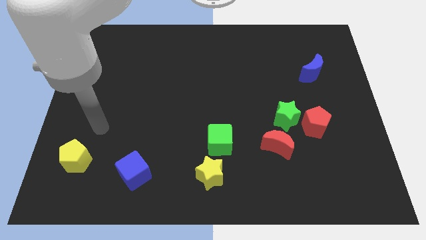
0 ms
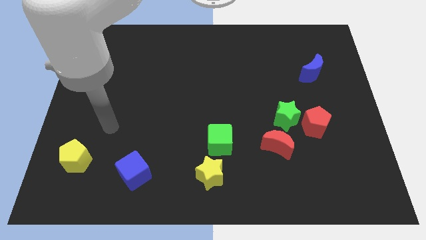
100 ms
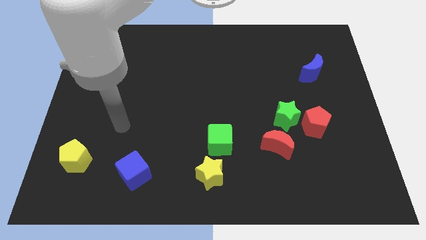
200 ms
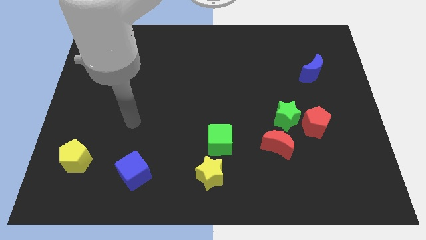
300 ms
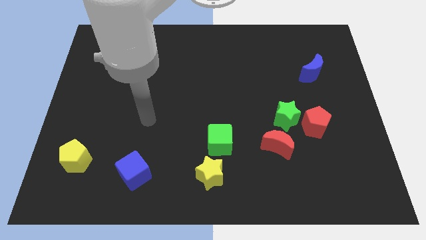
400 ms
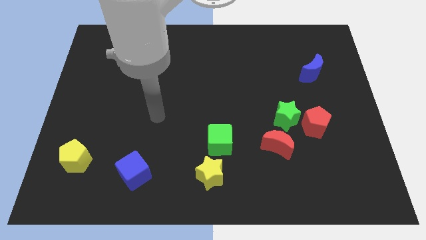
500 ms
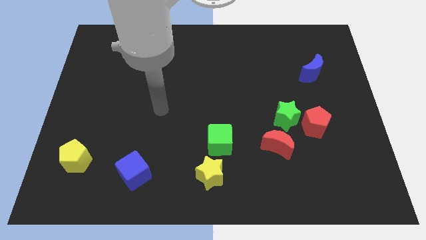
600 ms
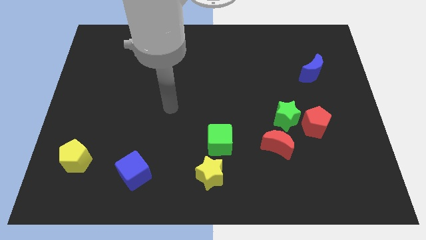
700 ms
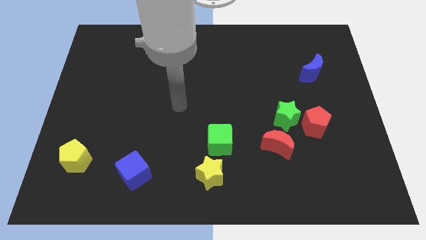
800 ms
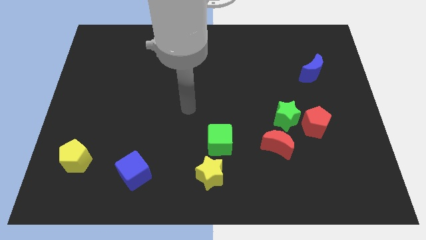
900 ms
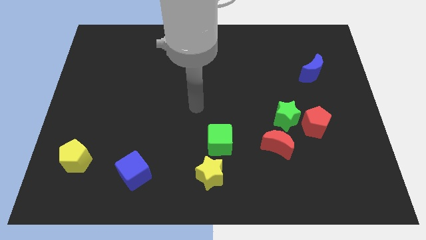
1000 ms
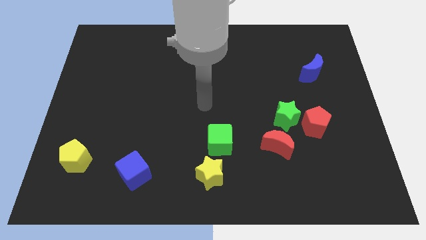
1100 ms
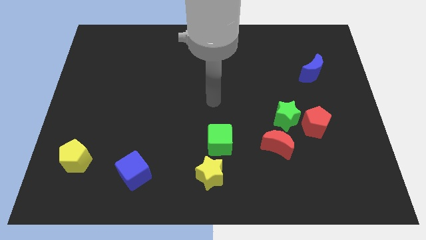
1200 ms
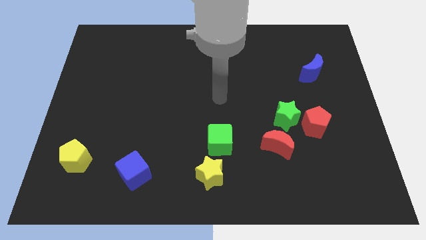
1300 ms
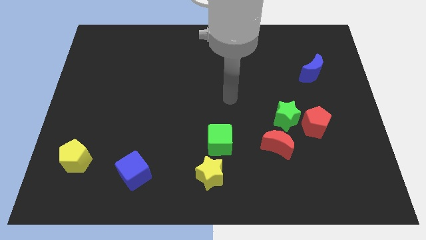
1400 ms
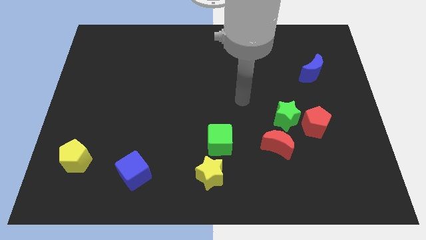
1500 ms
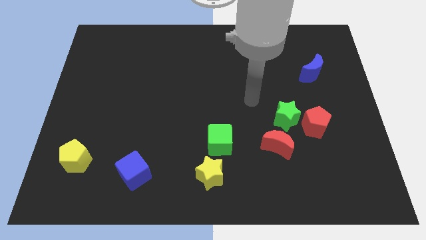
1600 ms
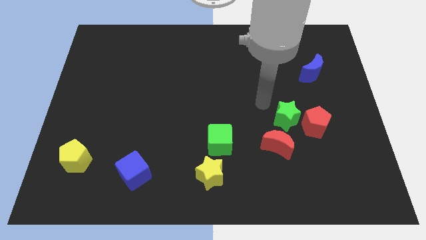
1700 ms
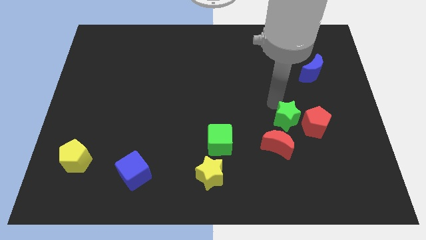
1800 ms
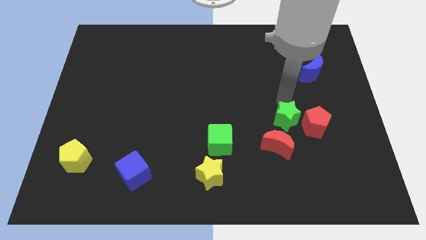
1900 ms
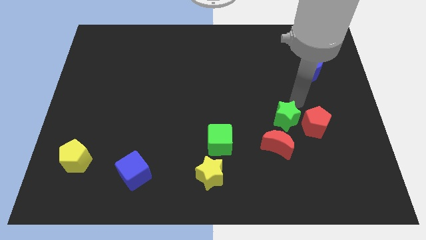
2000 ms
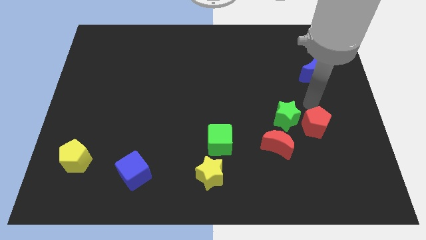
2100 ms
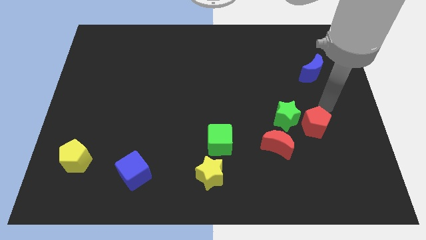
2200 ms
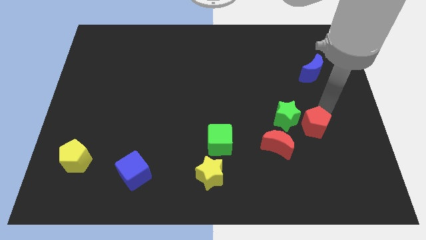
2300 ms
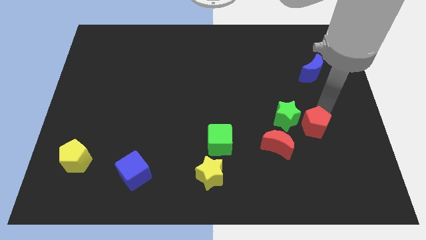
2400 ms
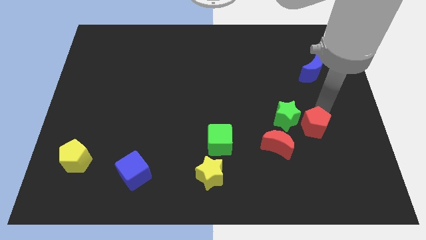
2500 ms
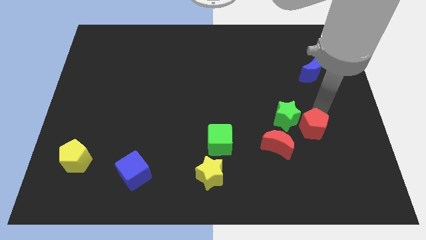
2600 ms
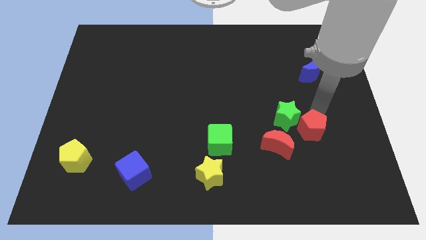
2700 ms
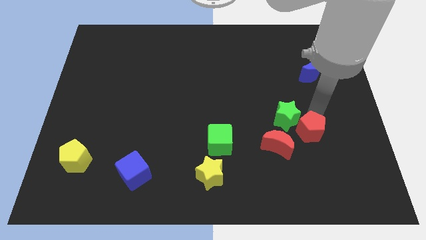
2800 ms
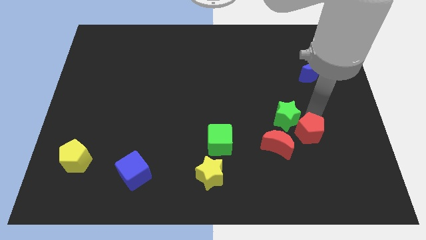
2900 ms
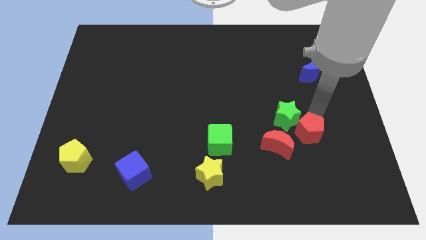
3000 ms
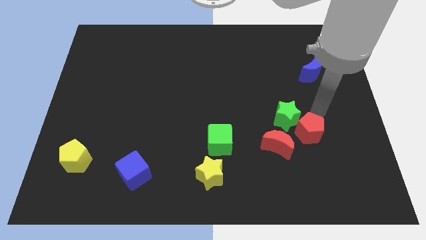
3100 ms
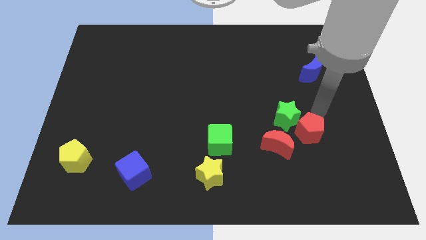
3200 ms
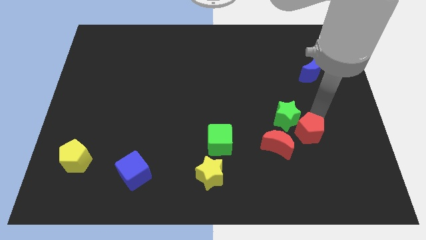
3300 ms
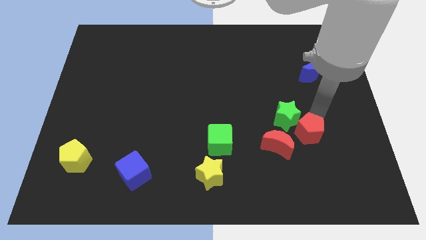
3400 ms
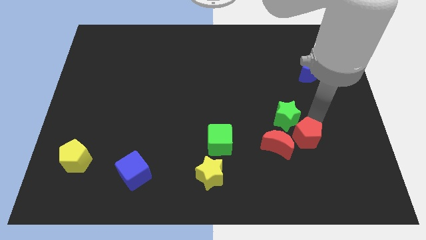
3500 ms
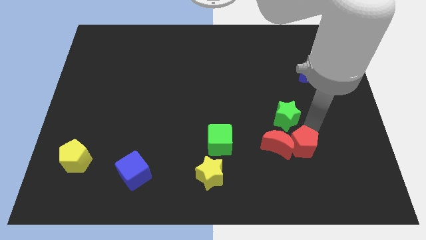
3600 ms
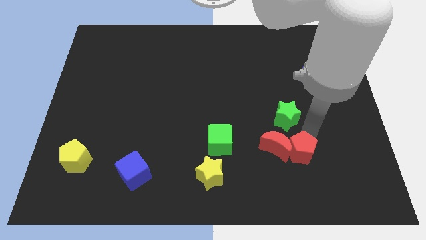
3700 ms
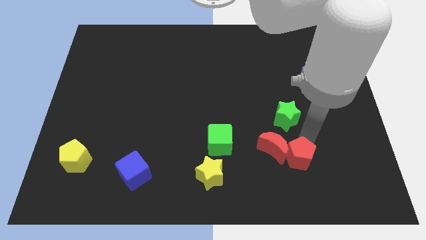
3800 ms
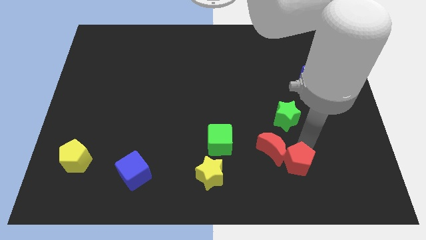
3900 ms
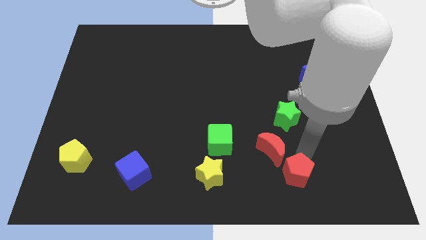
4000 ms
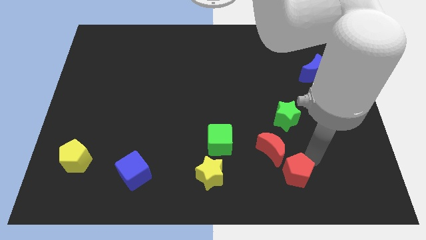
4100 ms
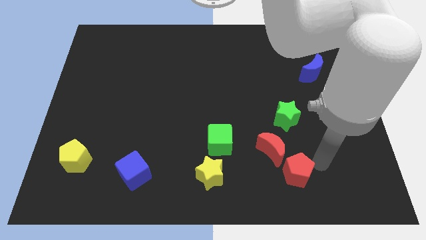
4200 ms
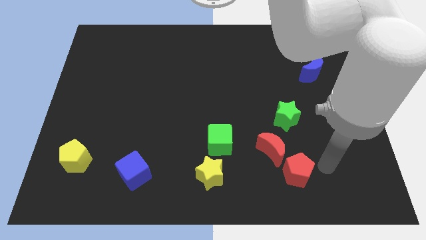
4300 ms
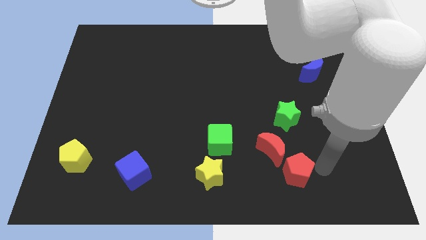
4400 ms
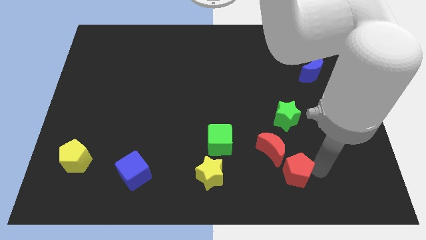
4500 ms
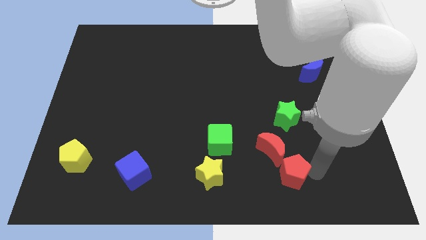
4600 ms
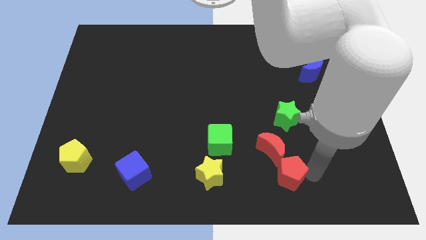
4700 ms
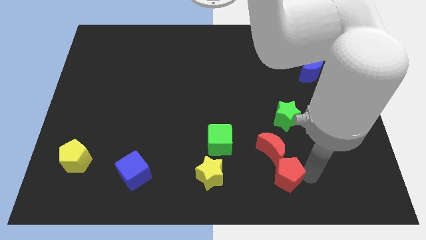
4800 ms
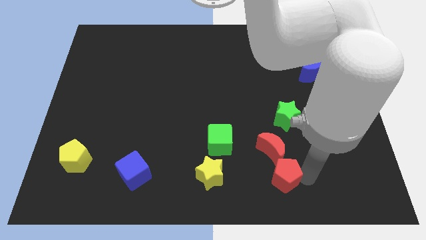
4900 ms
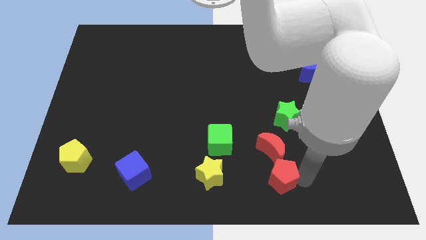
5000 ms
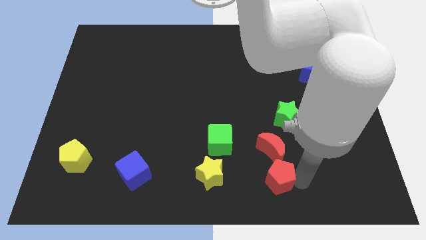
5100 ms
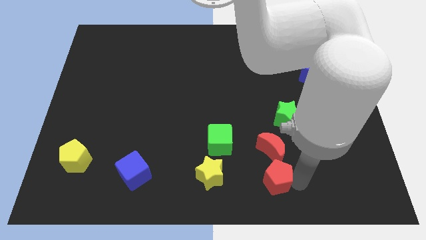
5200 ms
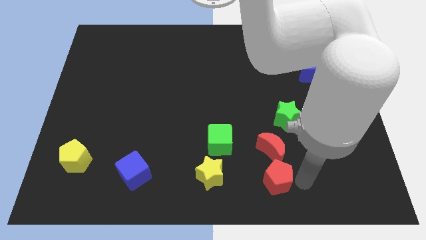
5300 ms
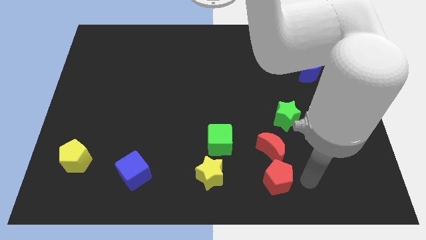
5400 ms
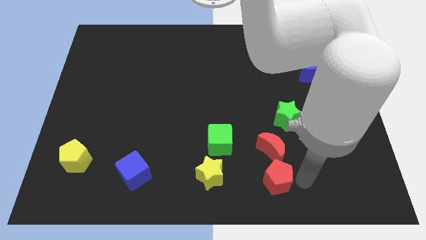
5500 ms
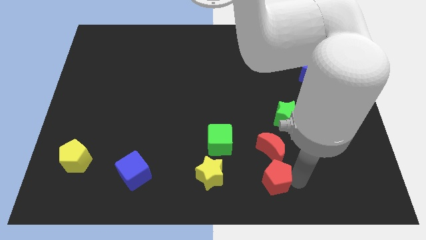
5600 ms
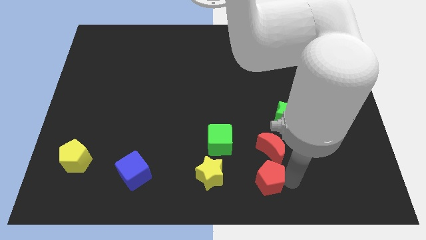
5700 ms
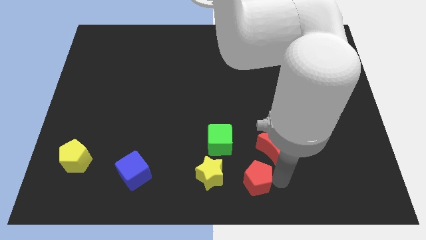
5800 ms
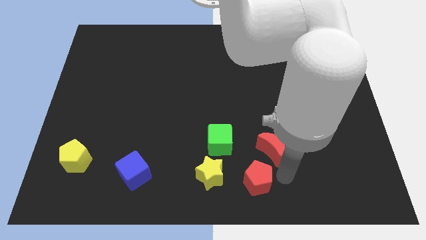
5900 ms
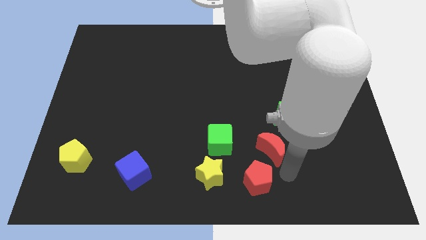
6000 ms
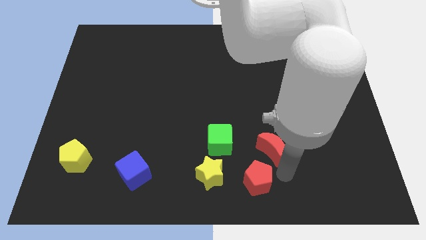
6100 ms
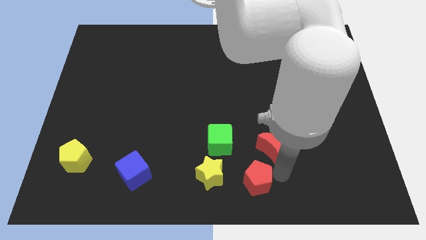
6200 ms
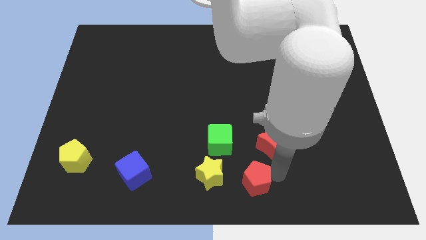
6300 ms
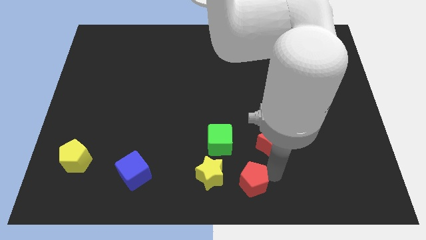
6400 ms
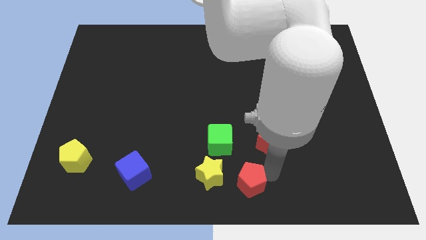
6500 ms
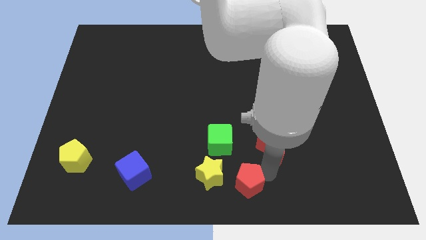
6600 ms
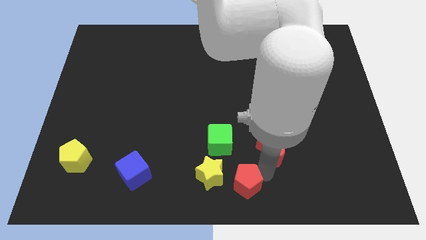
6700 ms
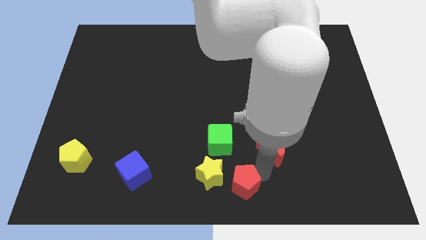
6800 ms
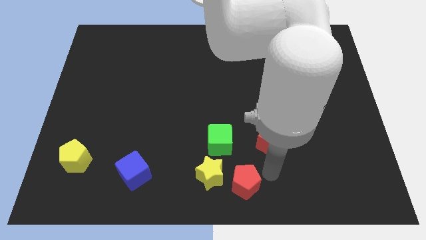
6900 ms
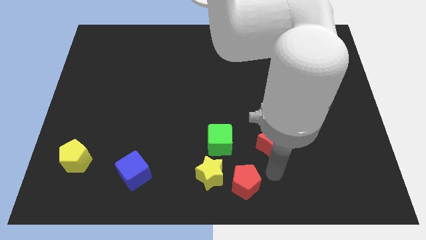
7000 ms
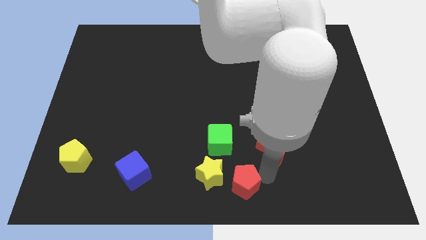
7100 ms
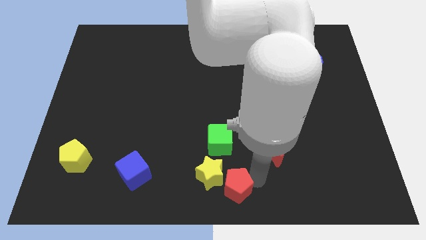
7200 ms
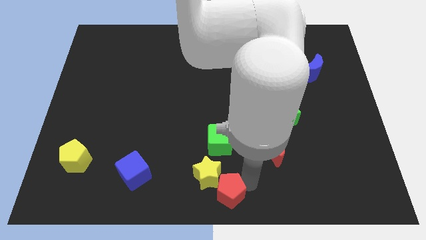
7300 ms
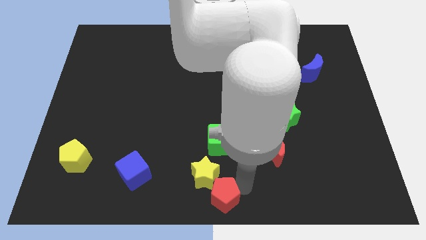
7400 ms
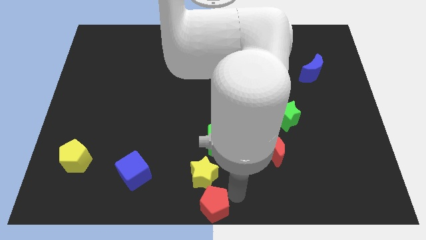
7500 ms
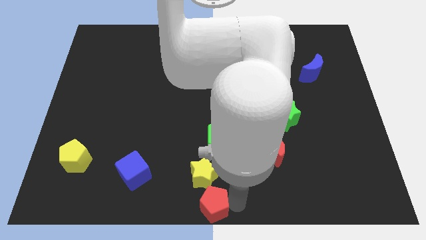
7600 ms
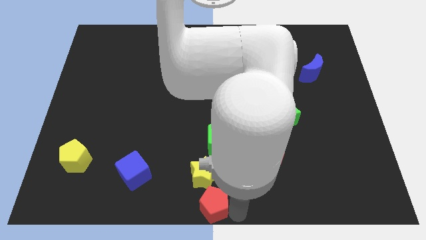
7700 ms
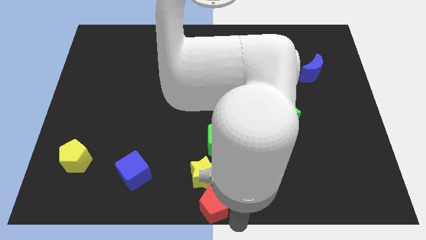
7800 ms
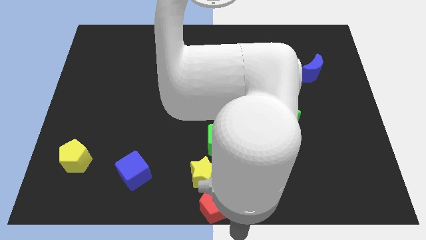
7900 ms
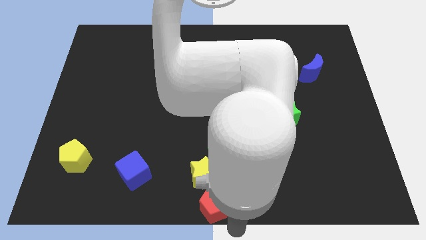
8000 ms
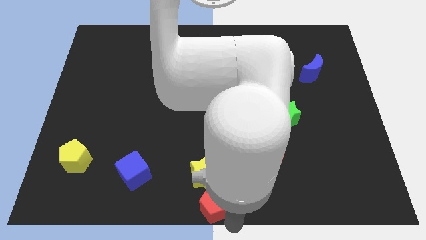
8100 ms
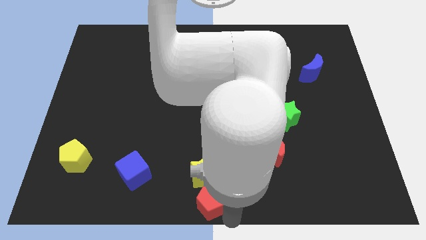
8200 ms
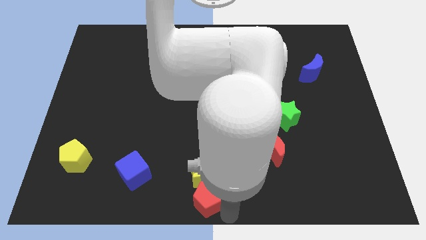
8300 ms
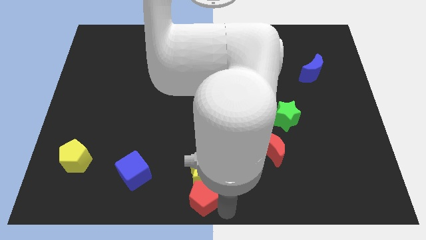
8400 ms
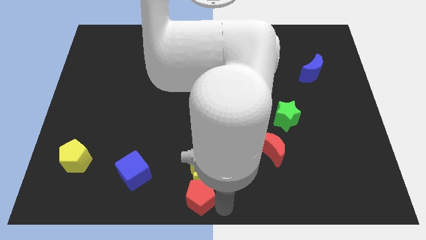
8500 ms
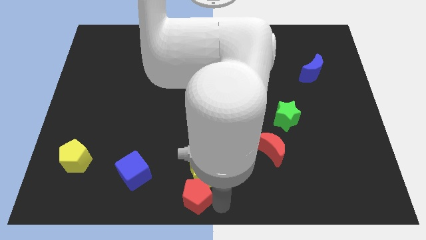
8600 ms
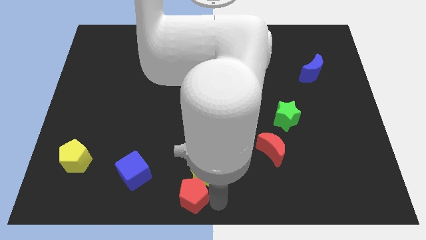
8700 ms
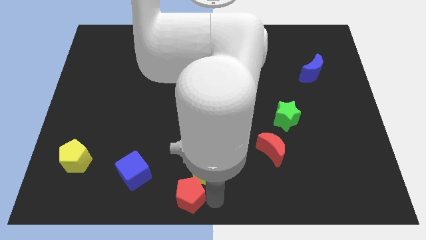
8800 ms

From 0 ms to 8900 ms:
slide the red pentagon to the right side of the blue cube
